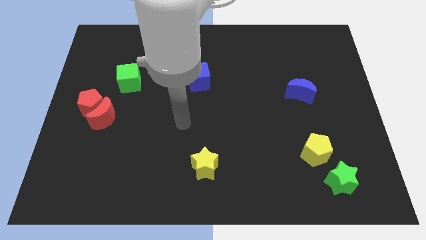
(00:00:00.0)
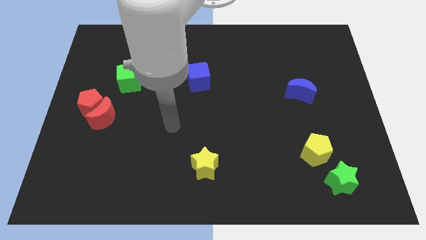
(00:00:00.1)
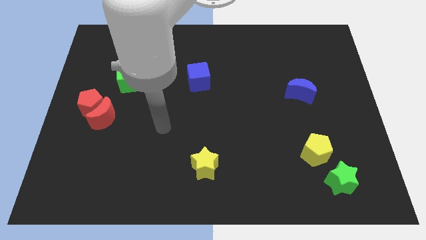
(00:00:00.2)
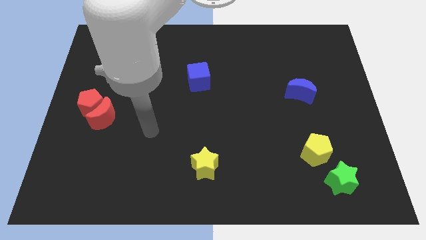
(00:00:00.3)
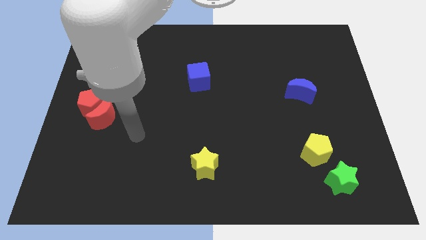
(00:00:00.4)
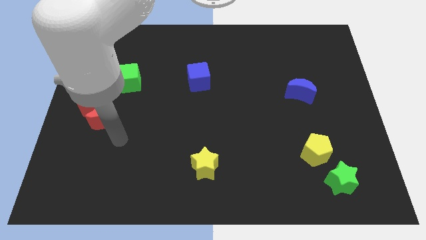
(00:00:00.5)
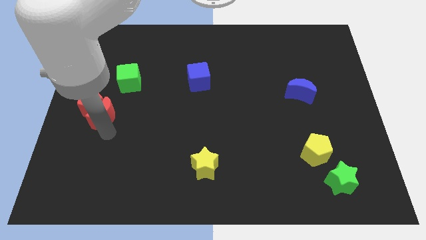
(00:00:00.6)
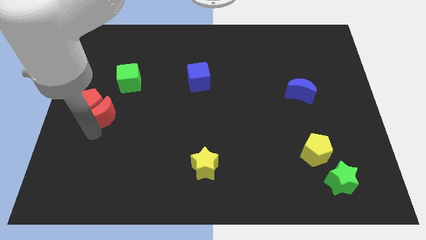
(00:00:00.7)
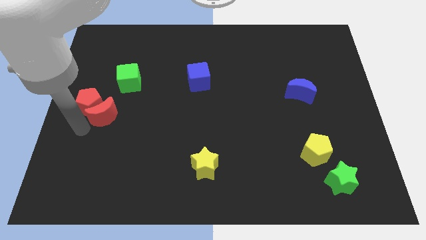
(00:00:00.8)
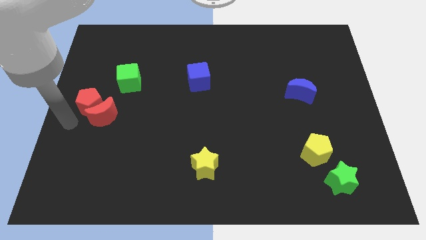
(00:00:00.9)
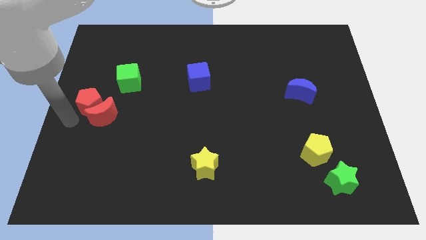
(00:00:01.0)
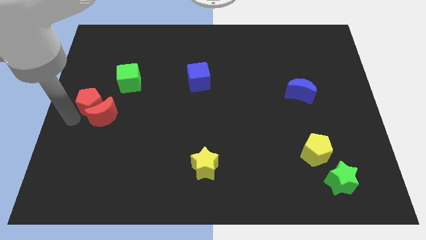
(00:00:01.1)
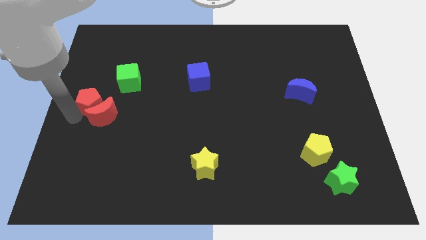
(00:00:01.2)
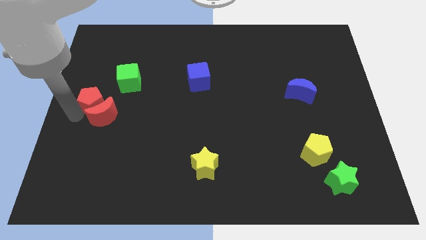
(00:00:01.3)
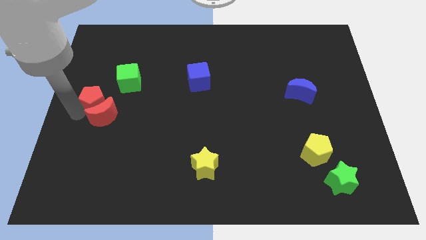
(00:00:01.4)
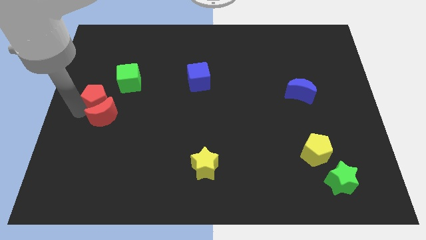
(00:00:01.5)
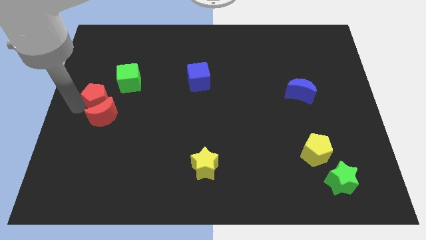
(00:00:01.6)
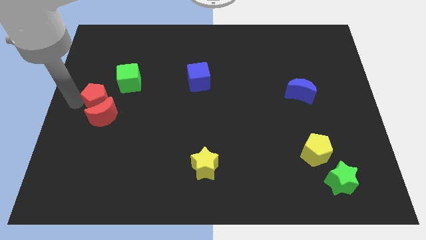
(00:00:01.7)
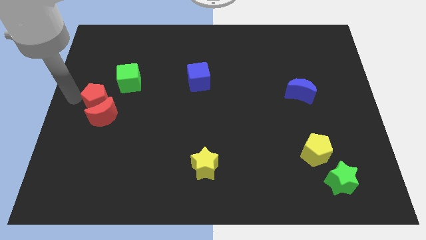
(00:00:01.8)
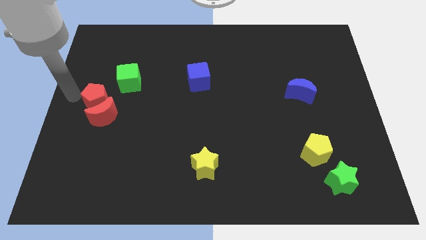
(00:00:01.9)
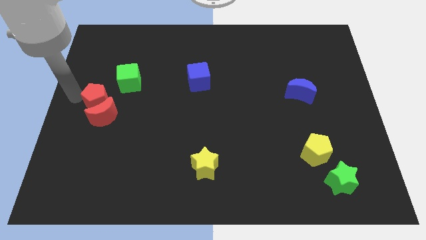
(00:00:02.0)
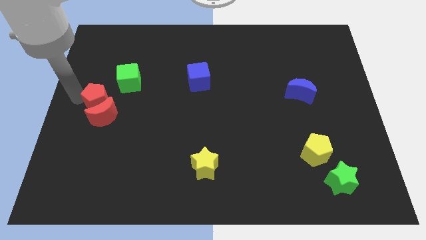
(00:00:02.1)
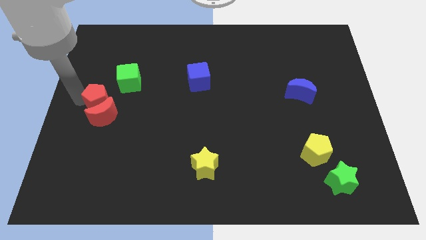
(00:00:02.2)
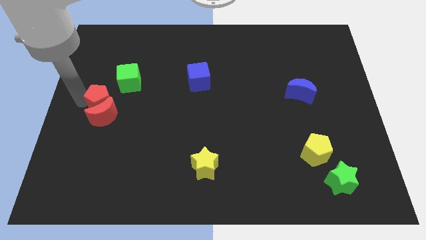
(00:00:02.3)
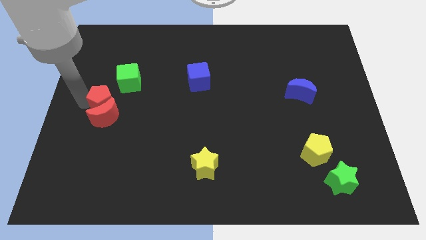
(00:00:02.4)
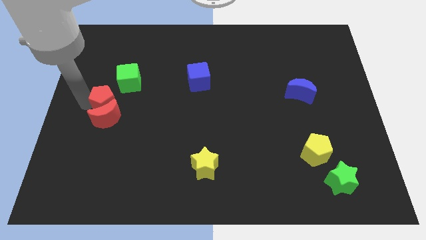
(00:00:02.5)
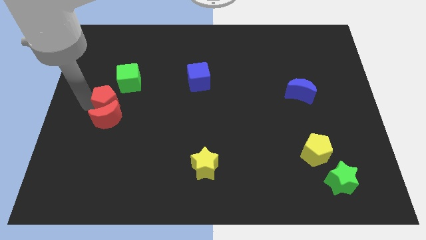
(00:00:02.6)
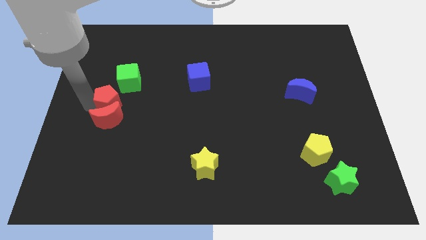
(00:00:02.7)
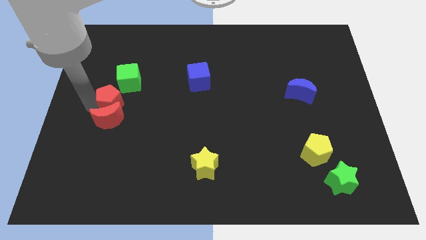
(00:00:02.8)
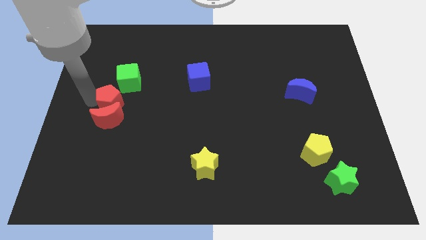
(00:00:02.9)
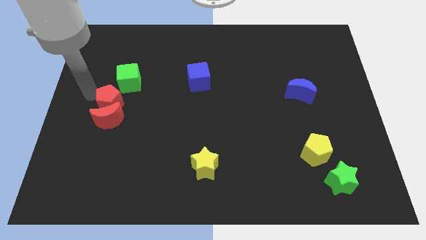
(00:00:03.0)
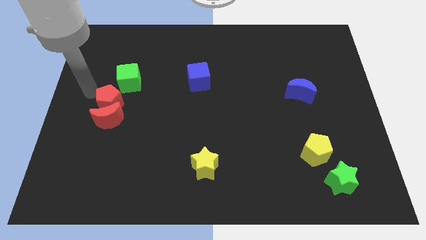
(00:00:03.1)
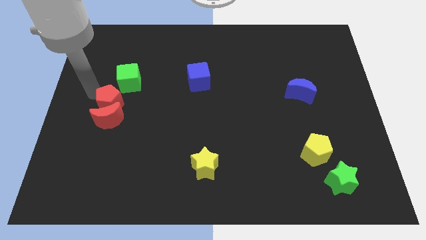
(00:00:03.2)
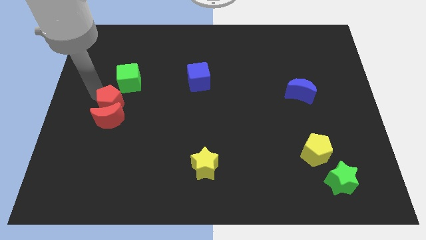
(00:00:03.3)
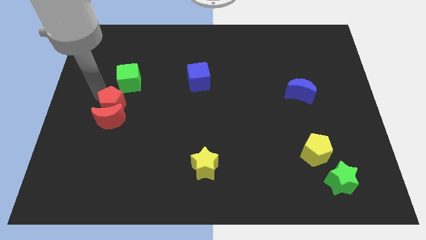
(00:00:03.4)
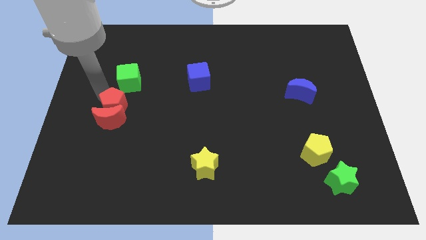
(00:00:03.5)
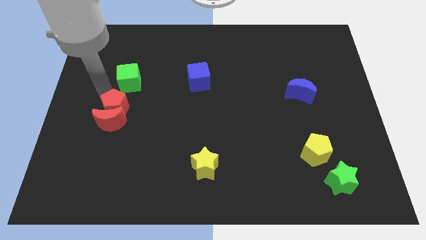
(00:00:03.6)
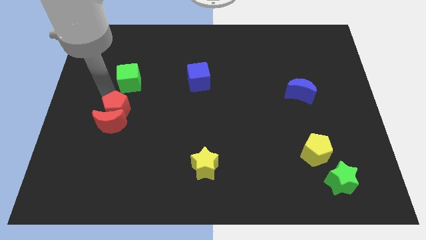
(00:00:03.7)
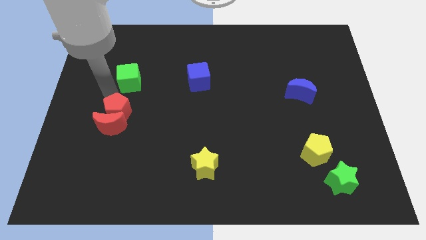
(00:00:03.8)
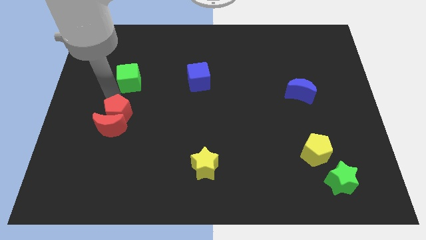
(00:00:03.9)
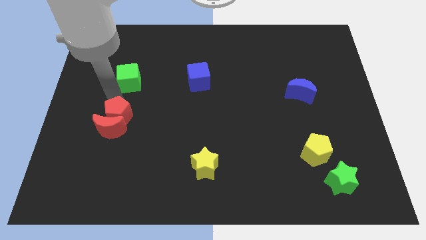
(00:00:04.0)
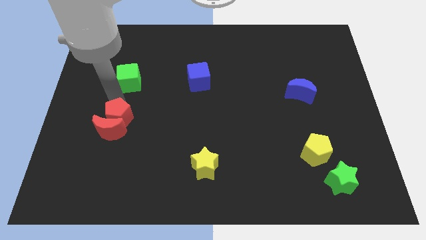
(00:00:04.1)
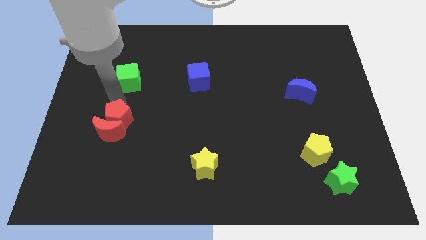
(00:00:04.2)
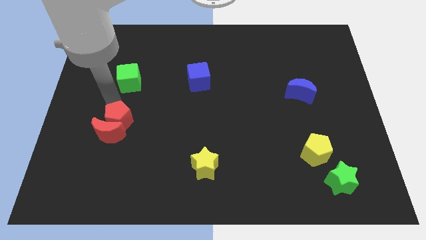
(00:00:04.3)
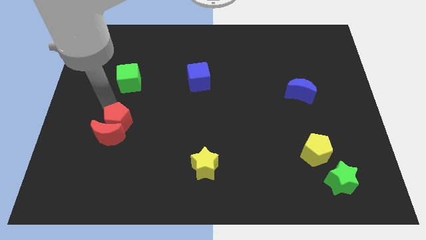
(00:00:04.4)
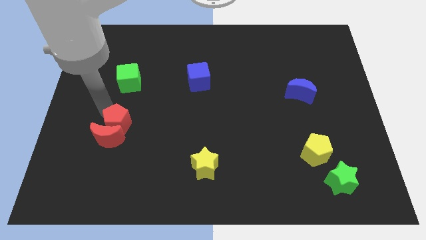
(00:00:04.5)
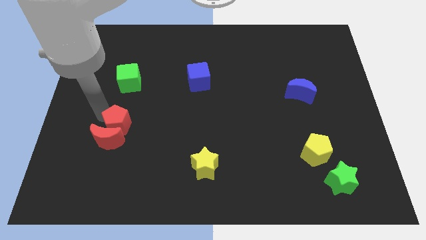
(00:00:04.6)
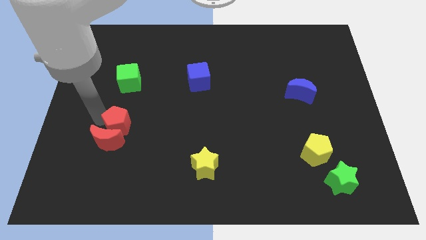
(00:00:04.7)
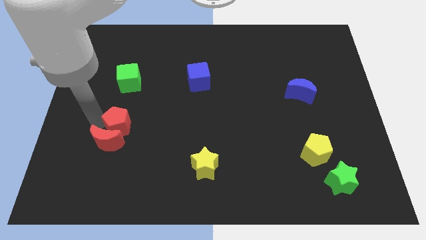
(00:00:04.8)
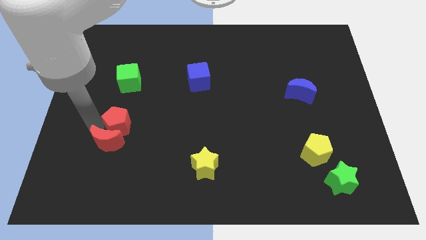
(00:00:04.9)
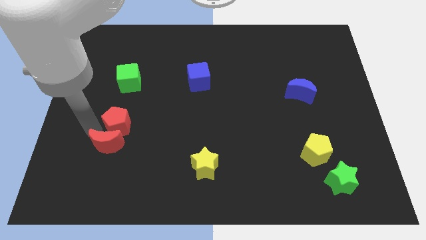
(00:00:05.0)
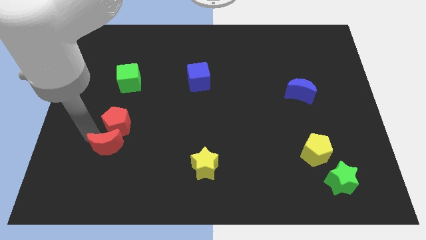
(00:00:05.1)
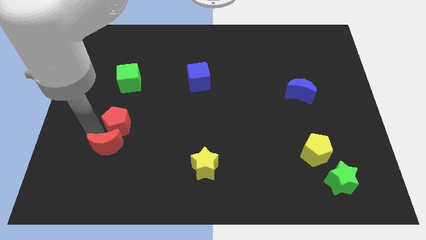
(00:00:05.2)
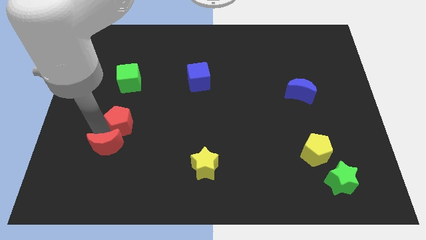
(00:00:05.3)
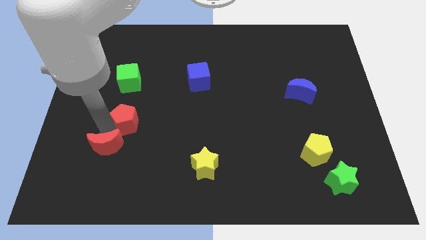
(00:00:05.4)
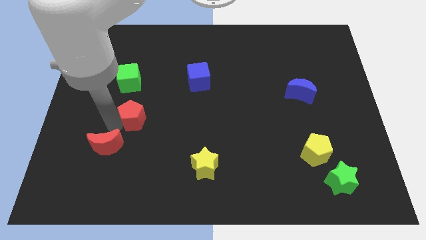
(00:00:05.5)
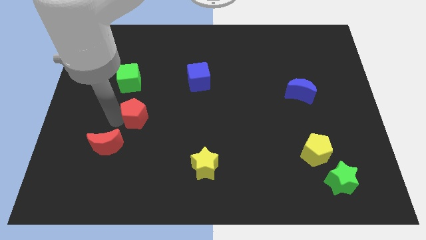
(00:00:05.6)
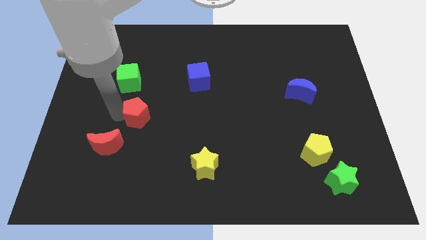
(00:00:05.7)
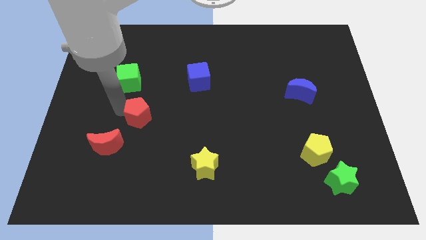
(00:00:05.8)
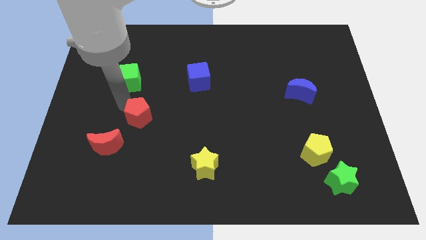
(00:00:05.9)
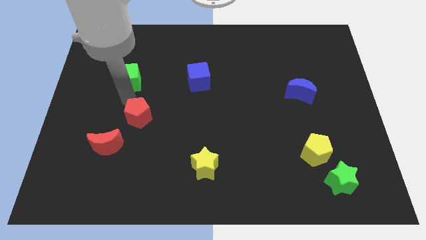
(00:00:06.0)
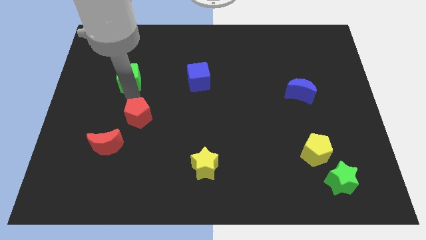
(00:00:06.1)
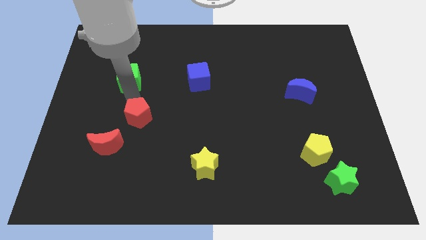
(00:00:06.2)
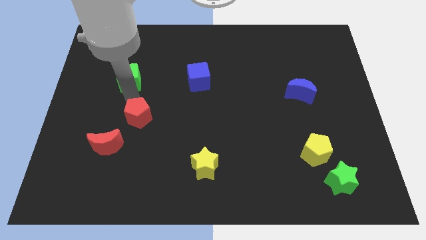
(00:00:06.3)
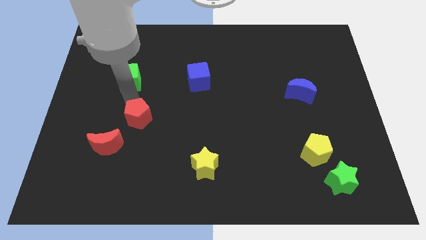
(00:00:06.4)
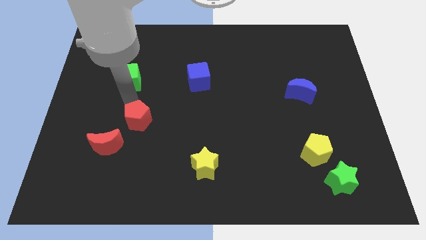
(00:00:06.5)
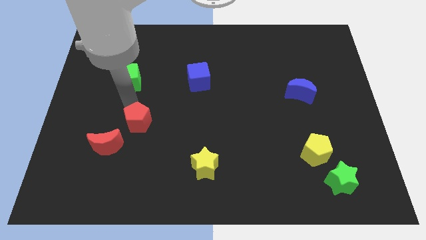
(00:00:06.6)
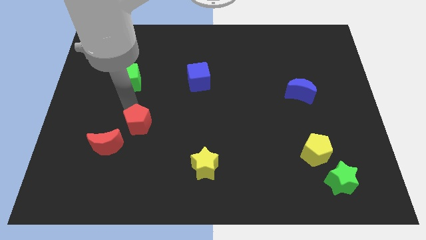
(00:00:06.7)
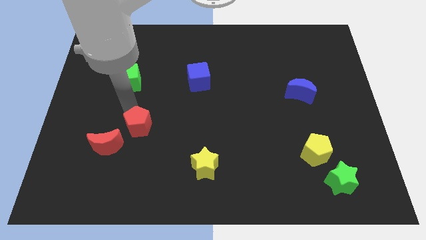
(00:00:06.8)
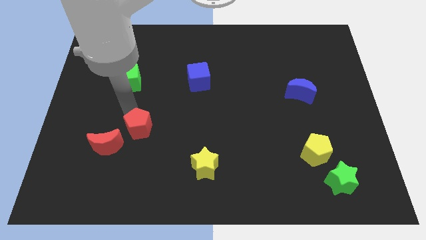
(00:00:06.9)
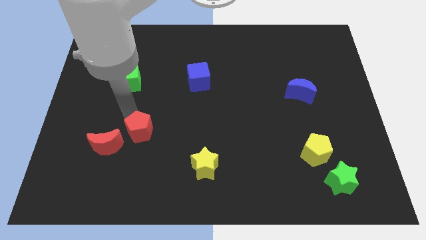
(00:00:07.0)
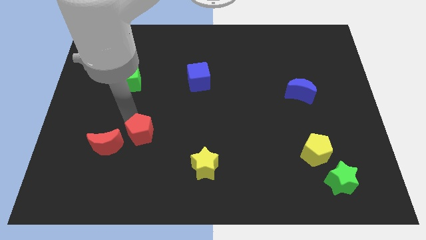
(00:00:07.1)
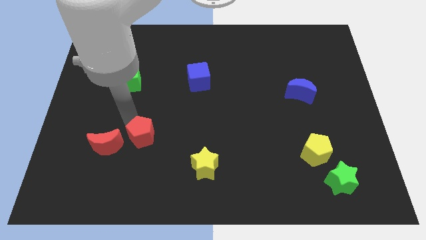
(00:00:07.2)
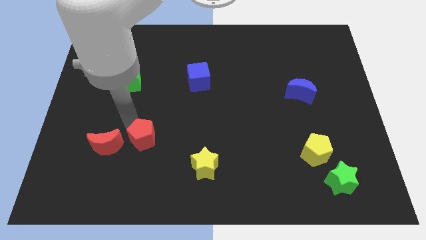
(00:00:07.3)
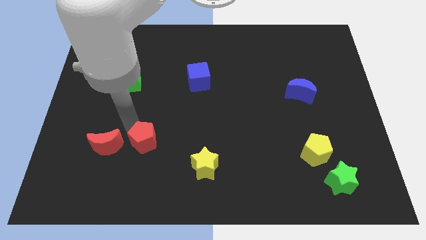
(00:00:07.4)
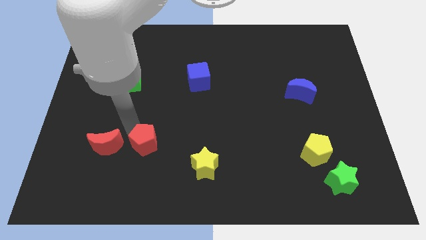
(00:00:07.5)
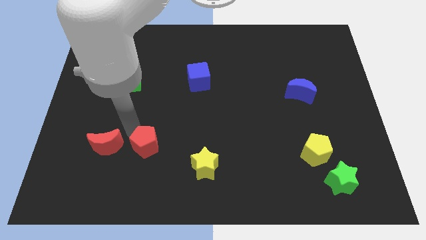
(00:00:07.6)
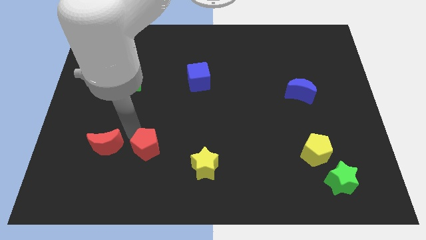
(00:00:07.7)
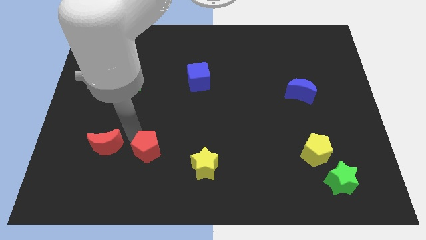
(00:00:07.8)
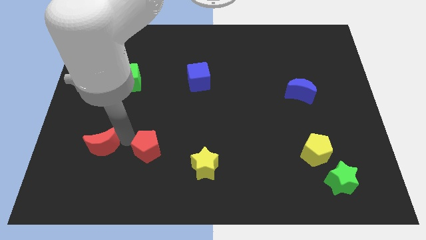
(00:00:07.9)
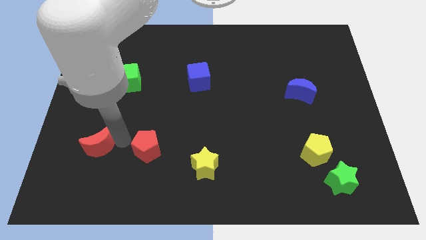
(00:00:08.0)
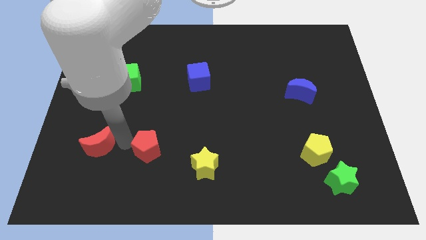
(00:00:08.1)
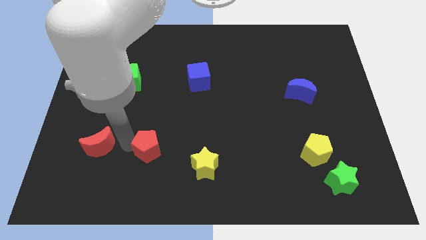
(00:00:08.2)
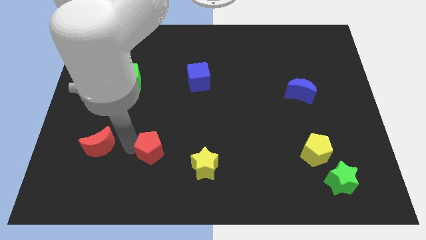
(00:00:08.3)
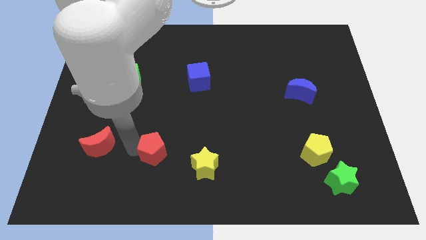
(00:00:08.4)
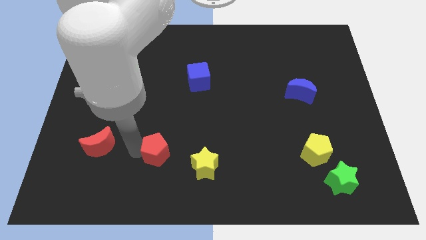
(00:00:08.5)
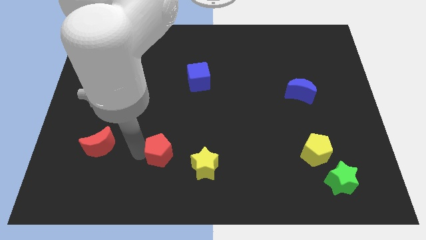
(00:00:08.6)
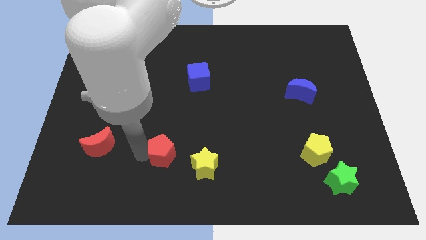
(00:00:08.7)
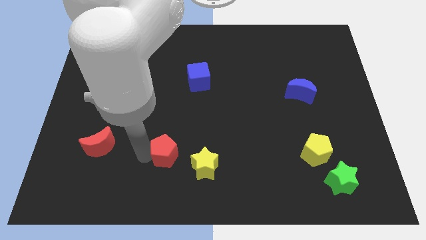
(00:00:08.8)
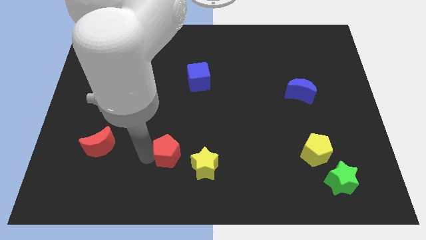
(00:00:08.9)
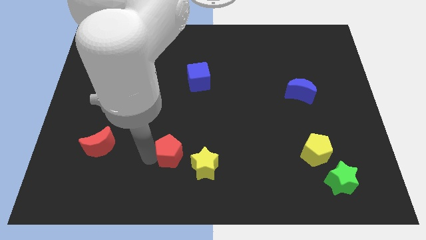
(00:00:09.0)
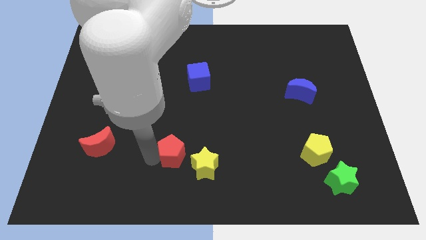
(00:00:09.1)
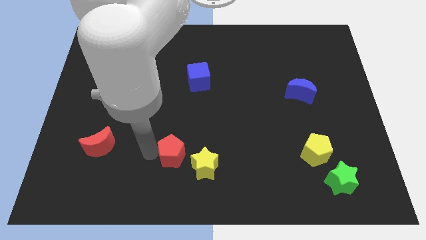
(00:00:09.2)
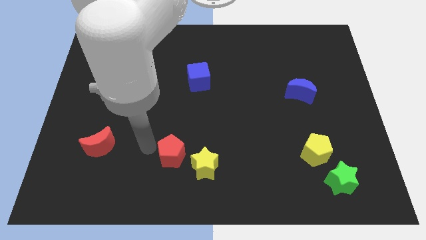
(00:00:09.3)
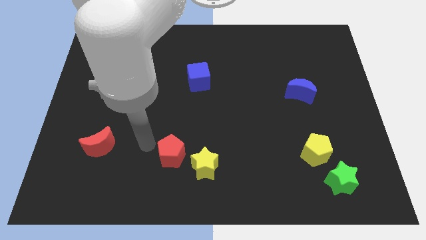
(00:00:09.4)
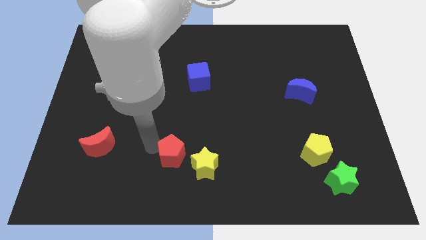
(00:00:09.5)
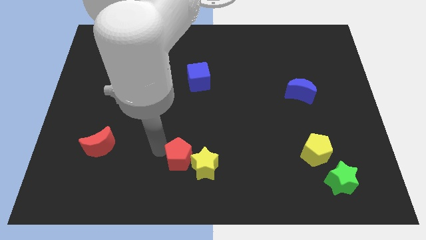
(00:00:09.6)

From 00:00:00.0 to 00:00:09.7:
move the red pentagon close to the yellow star
